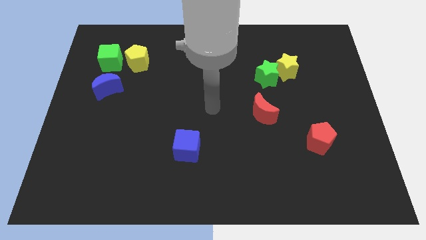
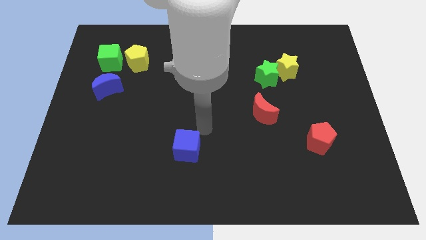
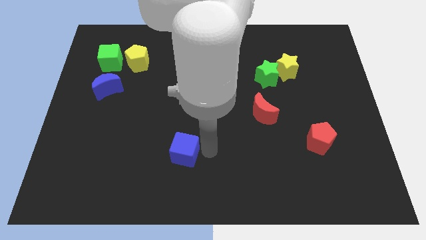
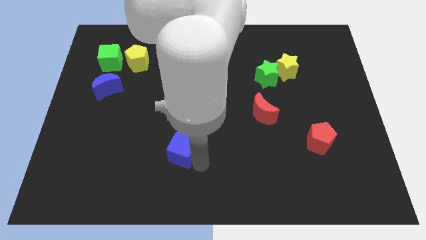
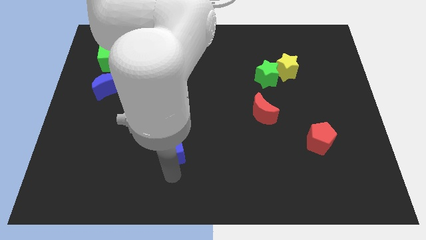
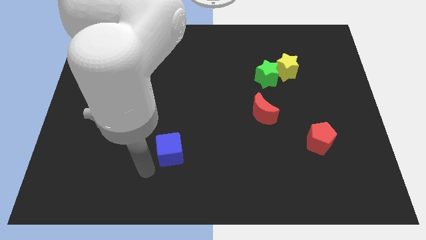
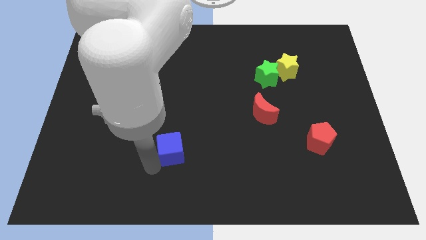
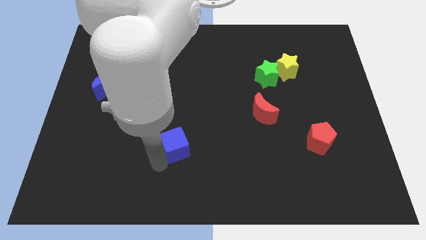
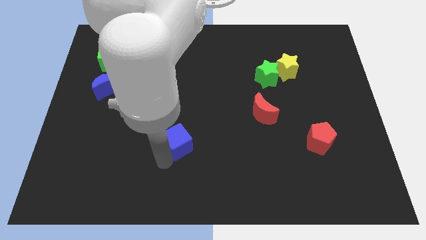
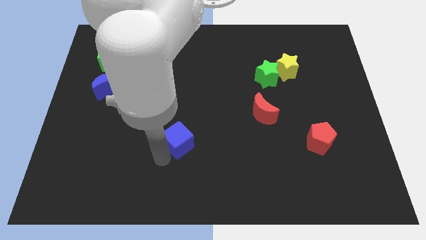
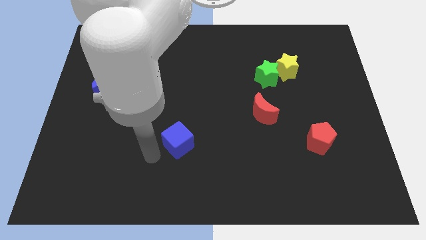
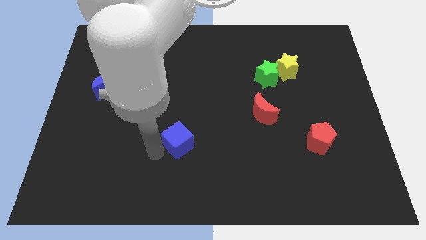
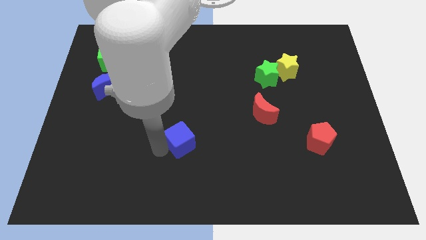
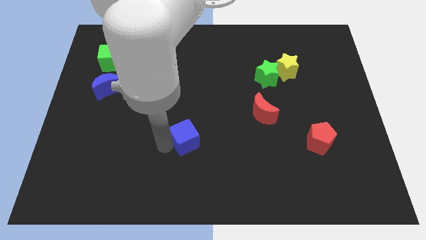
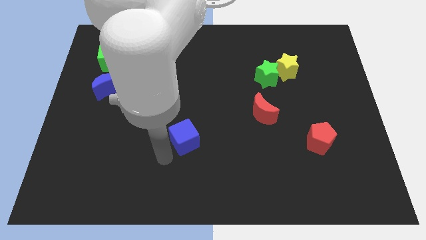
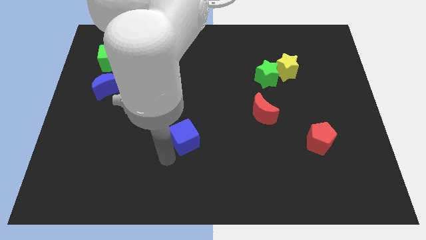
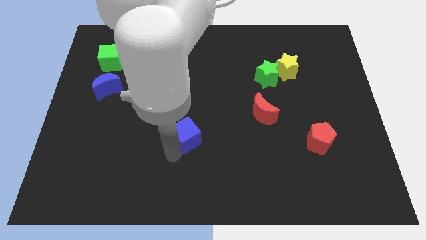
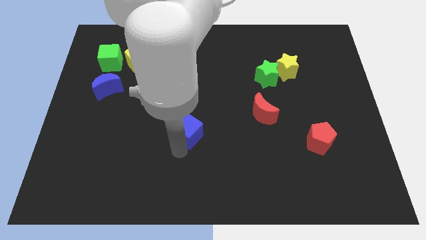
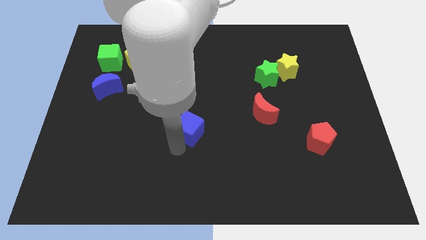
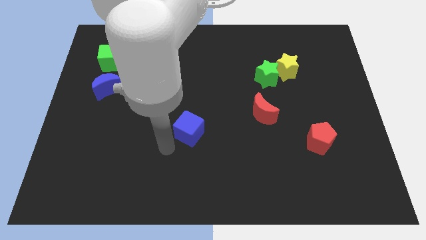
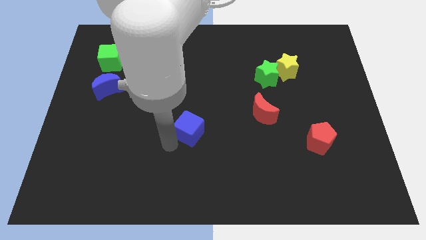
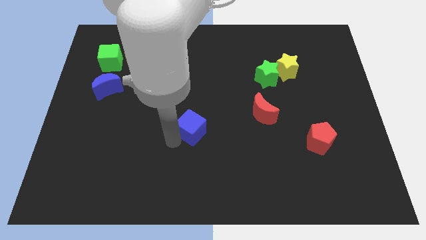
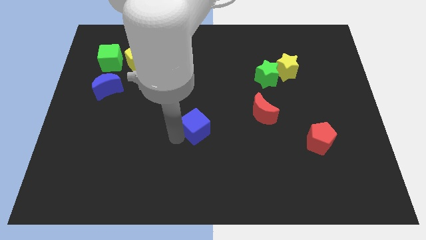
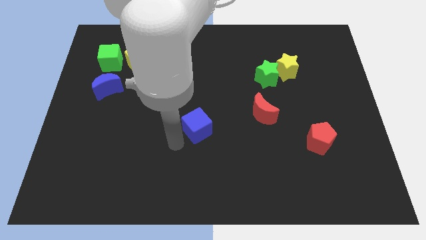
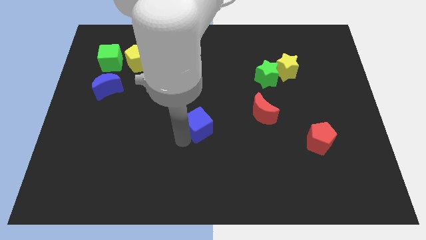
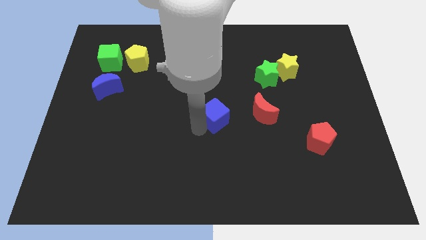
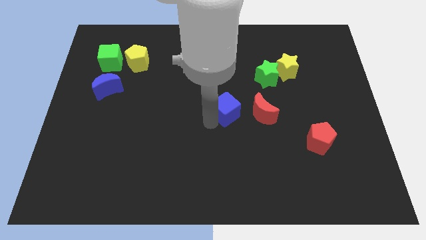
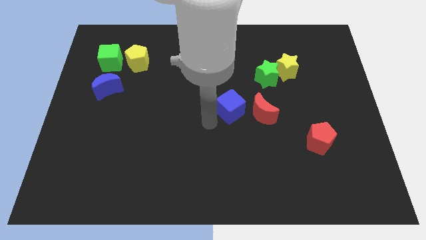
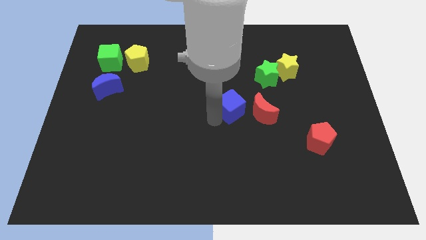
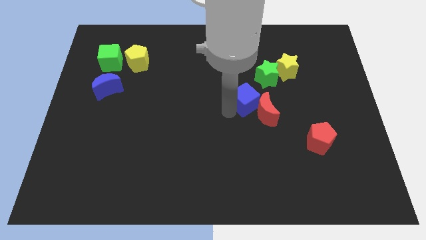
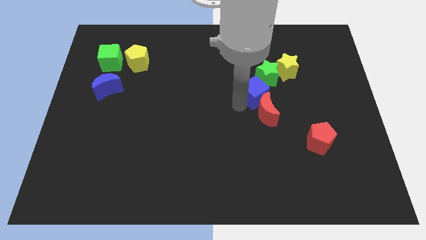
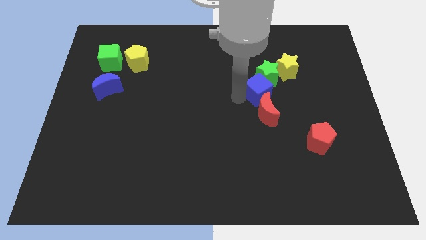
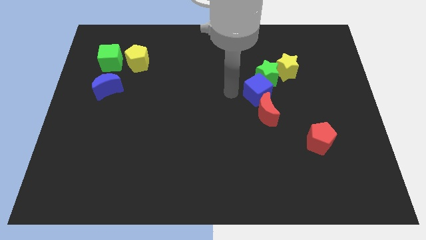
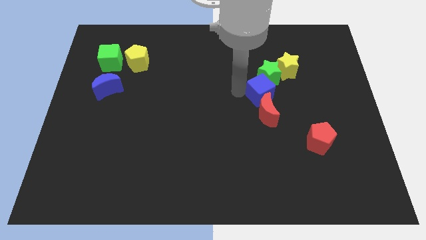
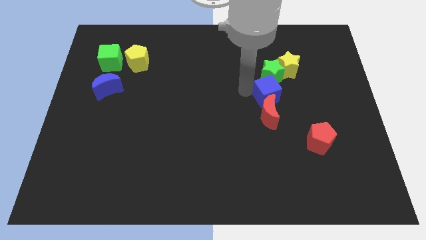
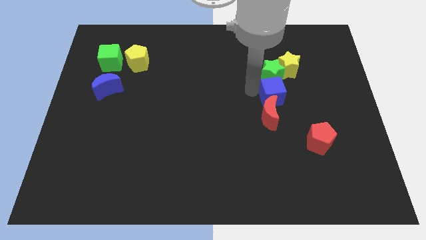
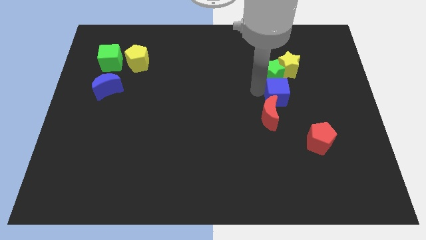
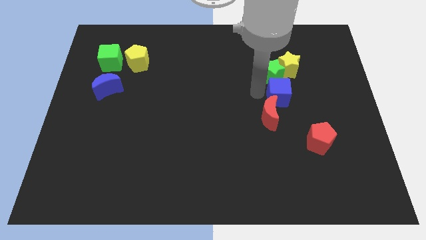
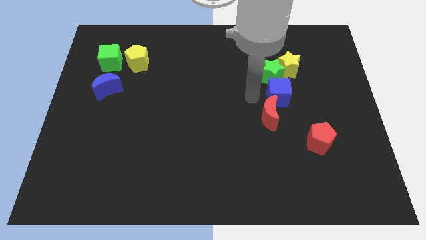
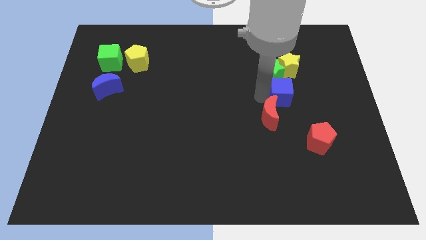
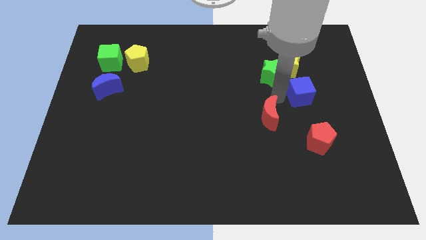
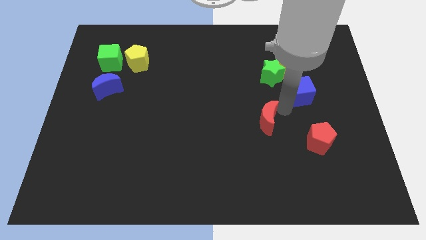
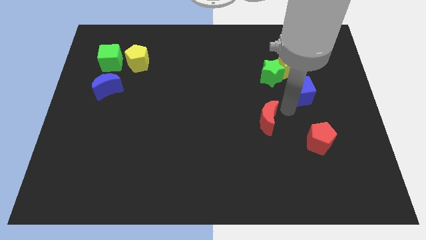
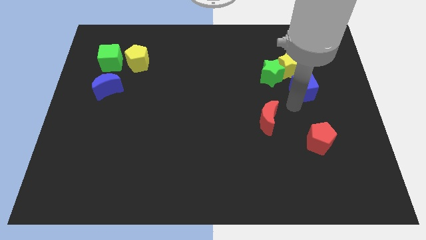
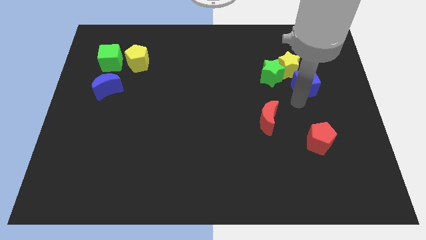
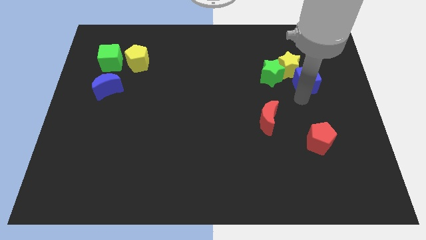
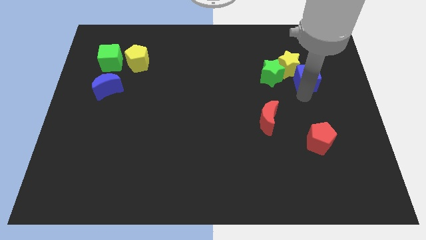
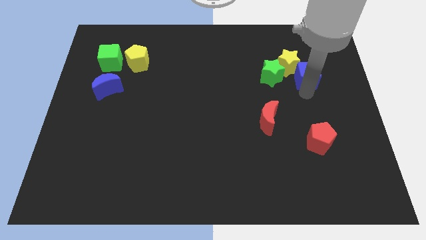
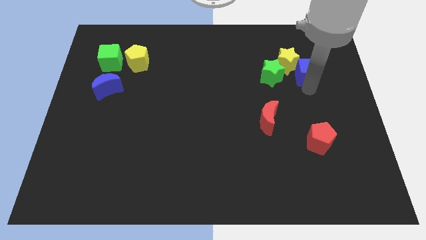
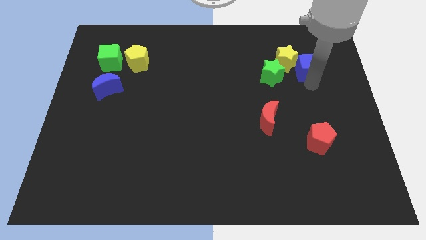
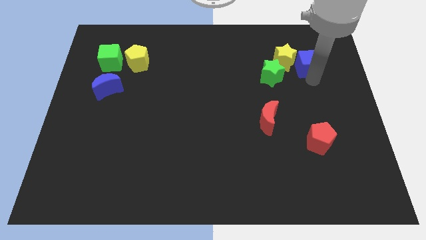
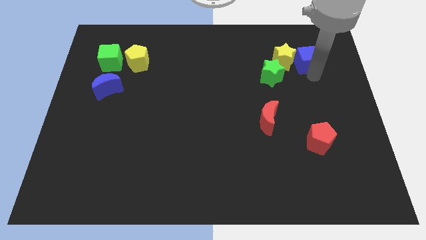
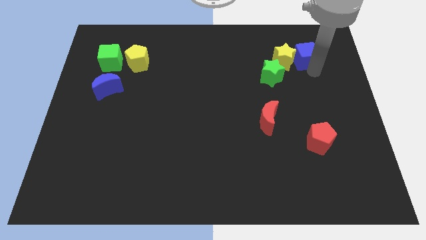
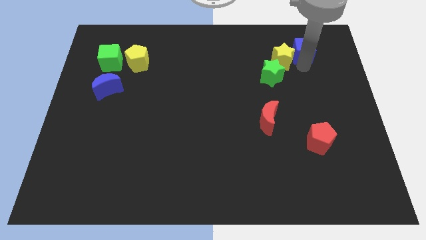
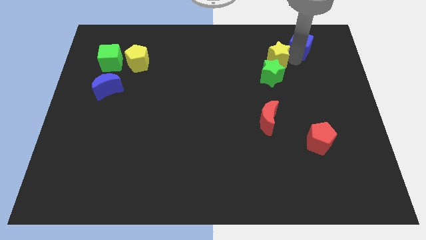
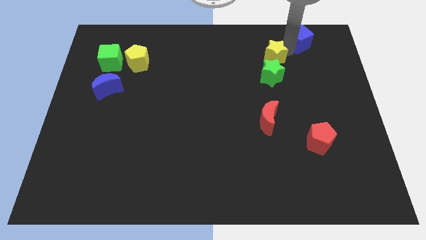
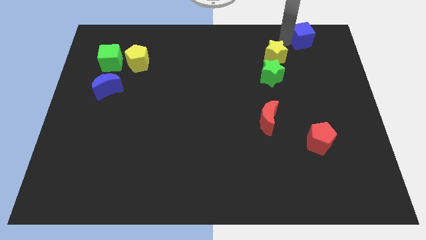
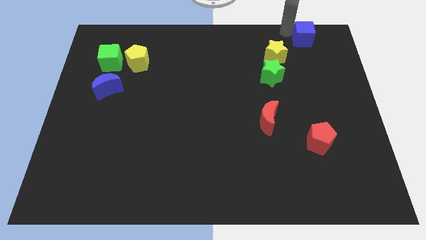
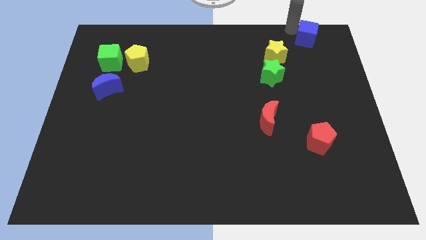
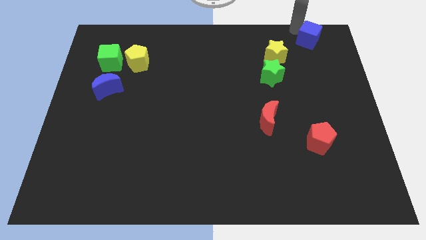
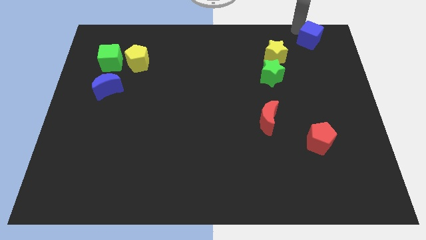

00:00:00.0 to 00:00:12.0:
slide the blue cube to the top right
